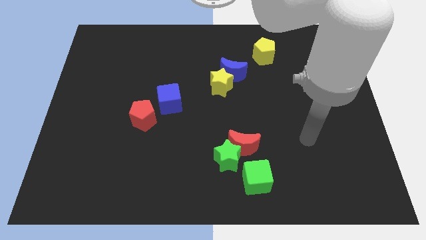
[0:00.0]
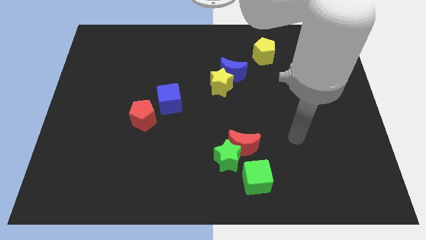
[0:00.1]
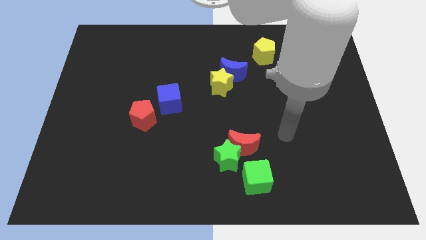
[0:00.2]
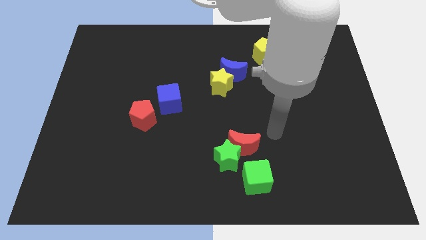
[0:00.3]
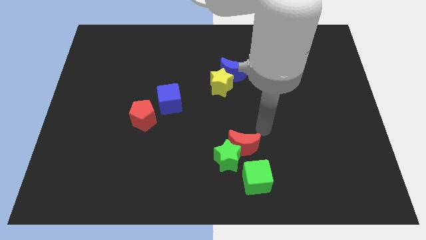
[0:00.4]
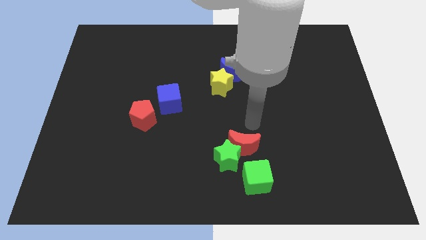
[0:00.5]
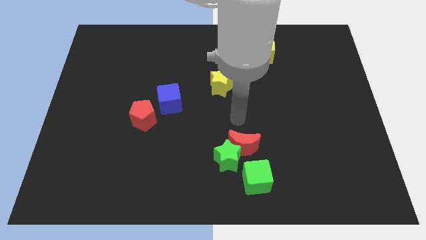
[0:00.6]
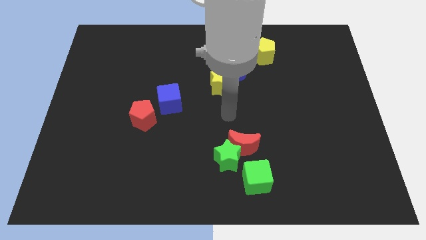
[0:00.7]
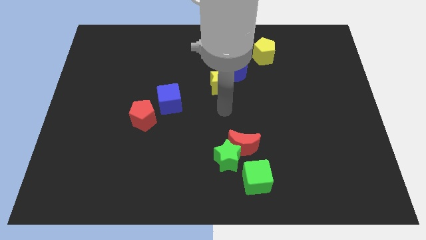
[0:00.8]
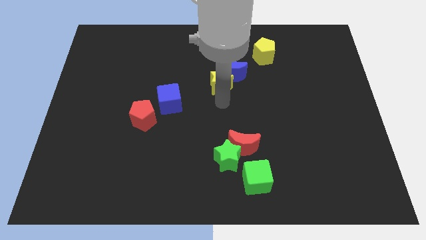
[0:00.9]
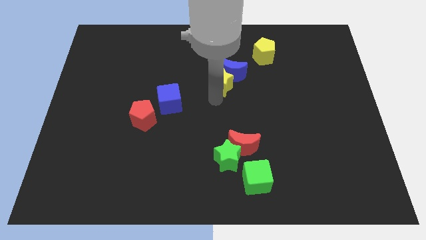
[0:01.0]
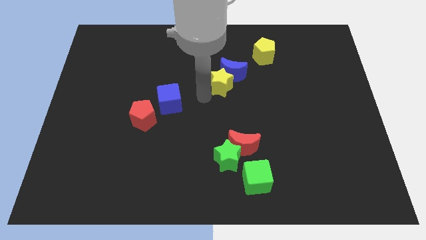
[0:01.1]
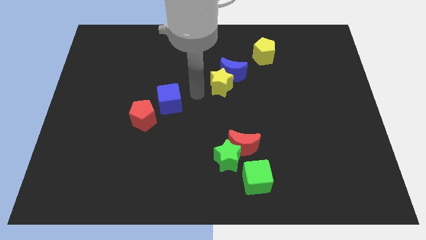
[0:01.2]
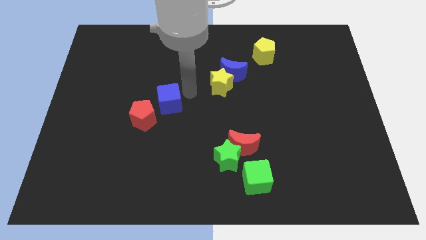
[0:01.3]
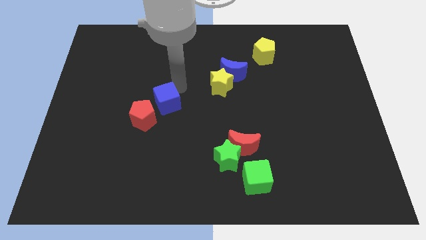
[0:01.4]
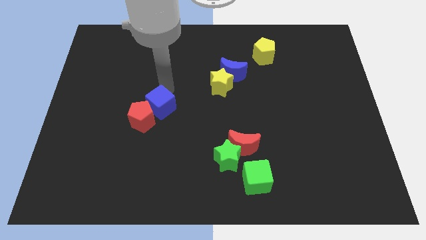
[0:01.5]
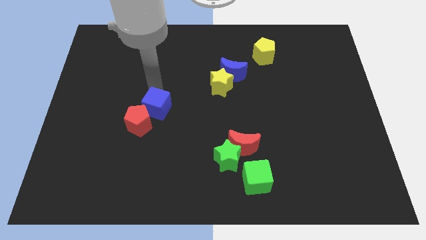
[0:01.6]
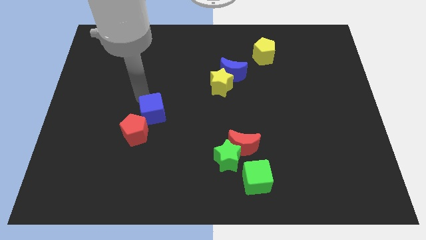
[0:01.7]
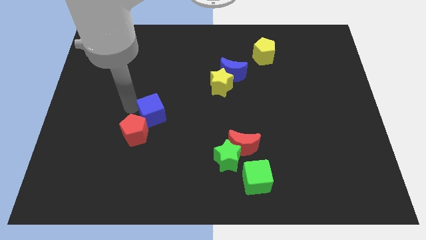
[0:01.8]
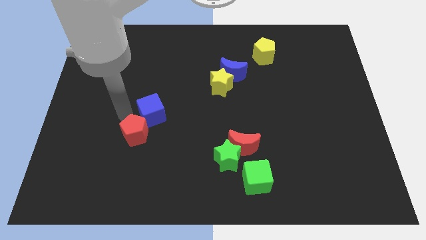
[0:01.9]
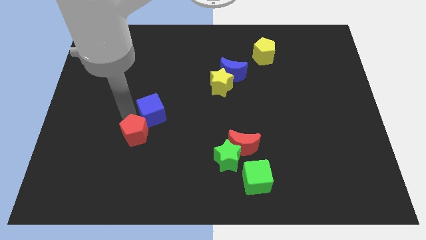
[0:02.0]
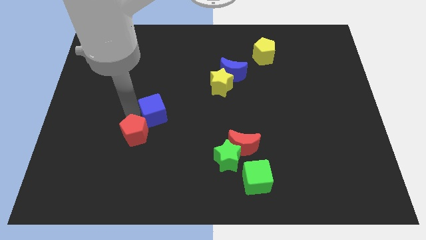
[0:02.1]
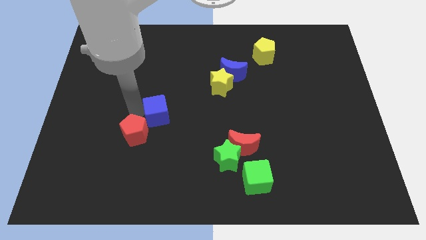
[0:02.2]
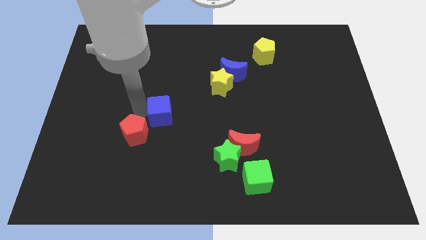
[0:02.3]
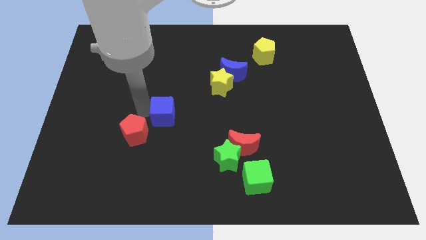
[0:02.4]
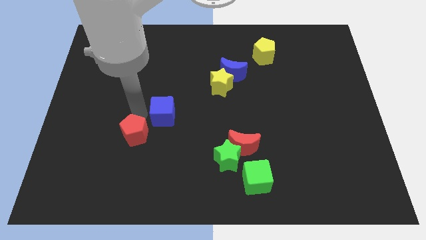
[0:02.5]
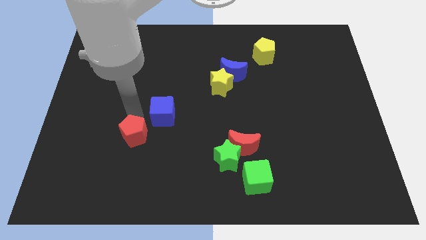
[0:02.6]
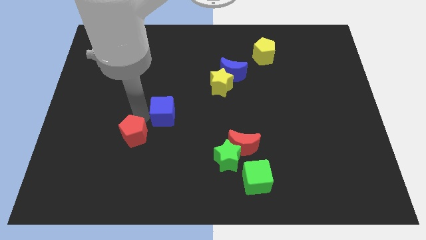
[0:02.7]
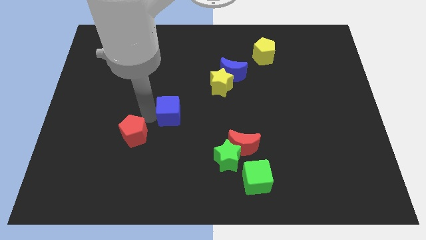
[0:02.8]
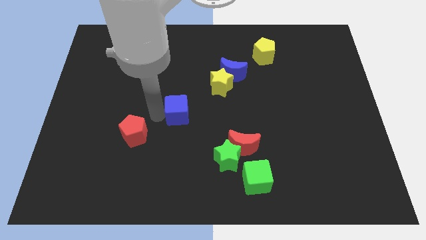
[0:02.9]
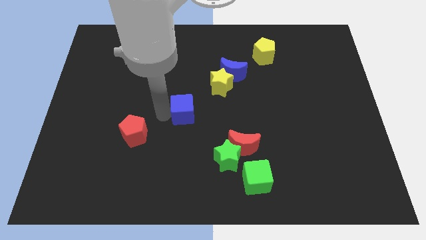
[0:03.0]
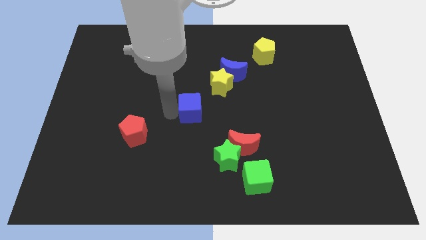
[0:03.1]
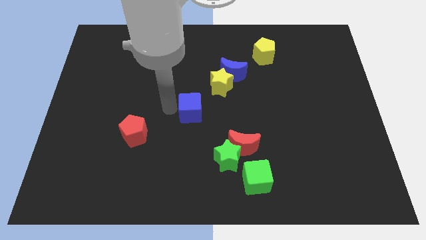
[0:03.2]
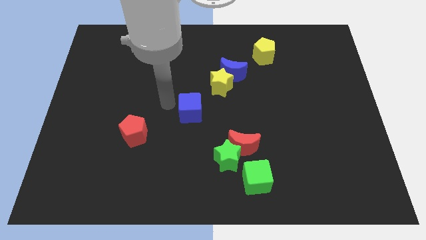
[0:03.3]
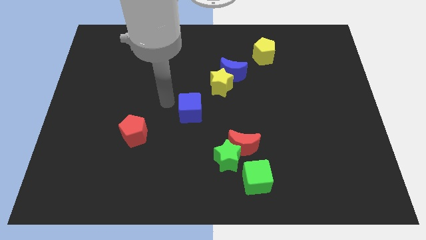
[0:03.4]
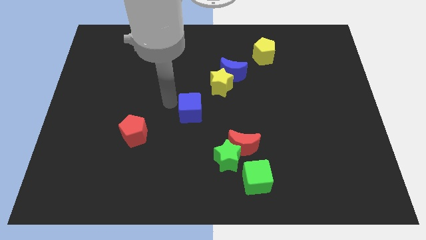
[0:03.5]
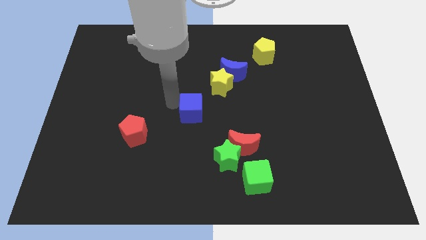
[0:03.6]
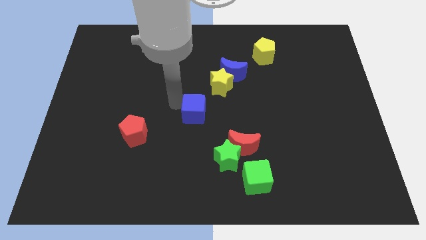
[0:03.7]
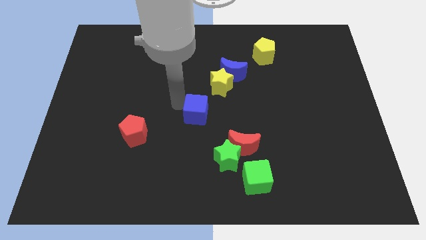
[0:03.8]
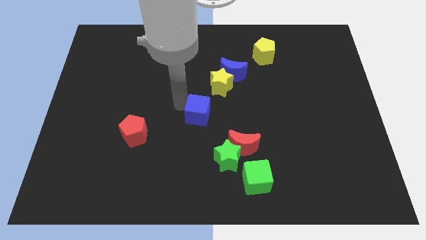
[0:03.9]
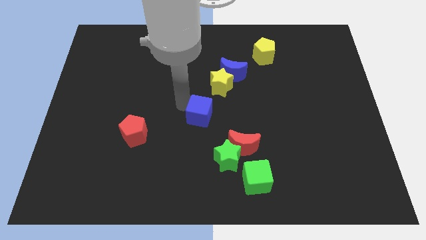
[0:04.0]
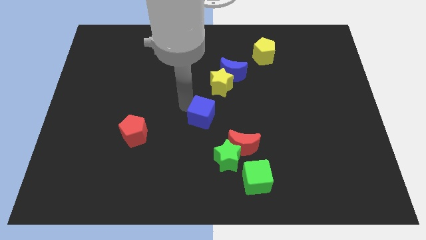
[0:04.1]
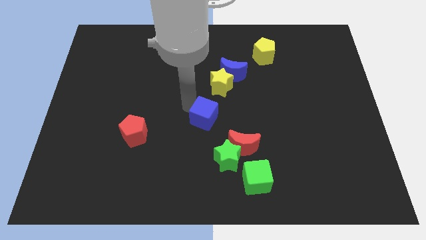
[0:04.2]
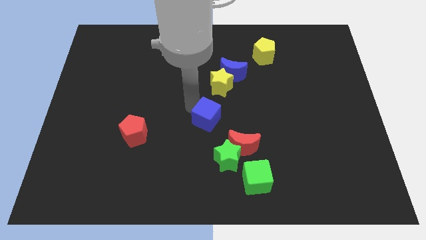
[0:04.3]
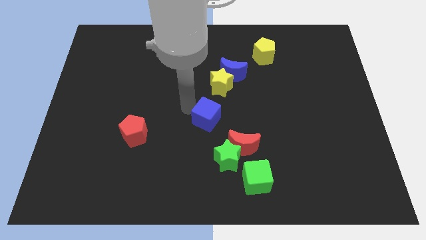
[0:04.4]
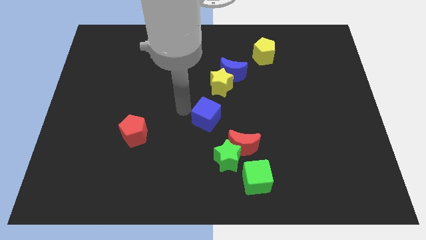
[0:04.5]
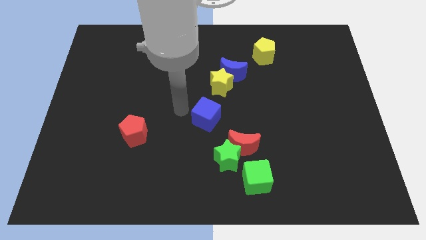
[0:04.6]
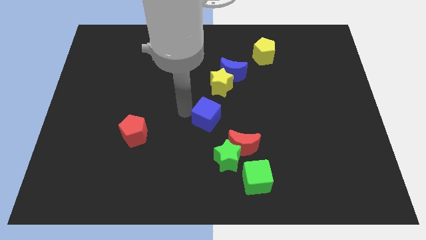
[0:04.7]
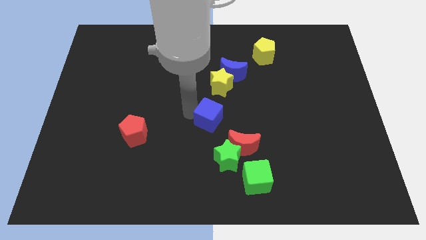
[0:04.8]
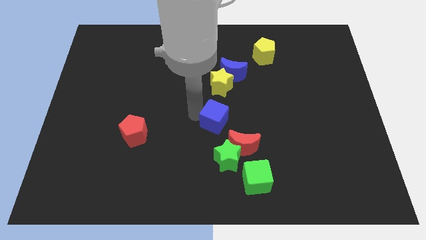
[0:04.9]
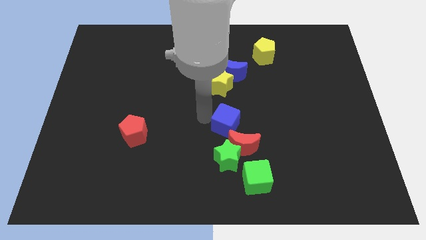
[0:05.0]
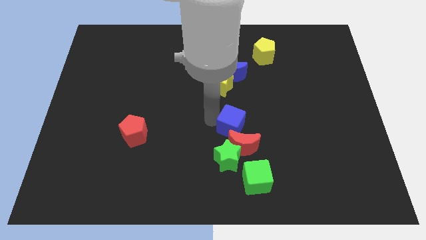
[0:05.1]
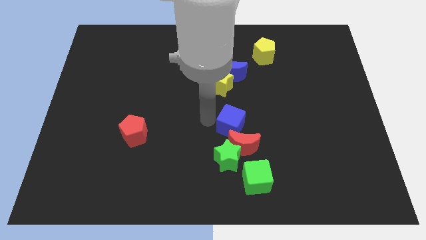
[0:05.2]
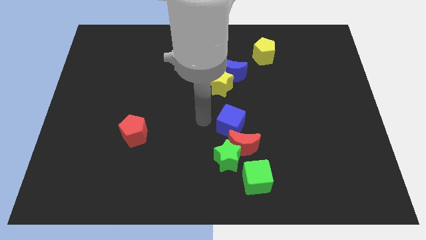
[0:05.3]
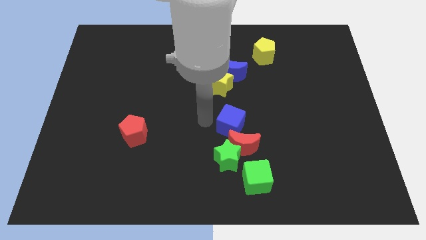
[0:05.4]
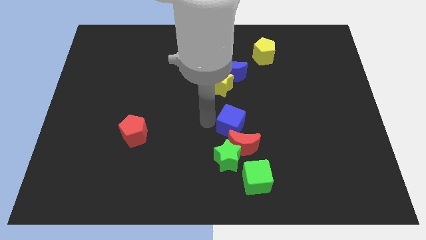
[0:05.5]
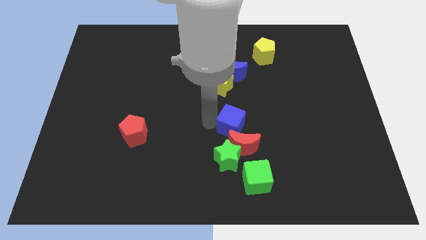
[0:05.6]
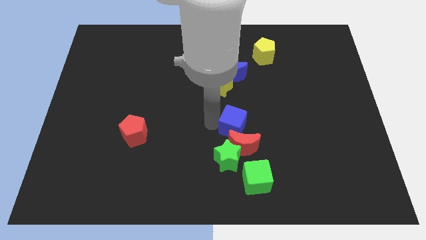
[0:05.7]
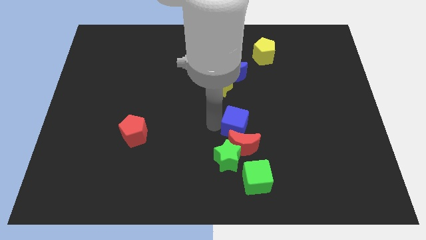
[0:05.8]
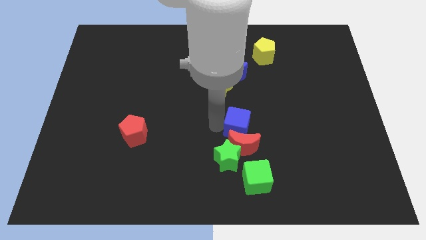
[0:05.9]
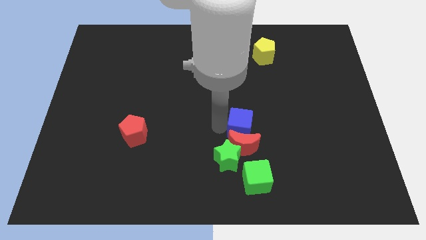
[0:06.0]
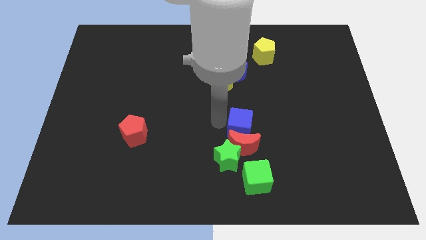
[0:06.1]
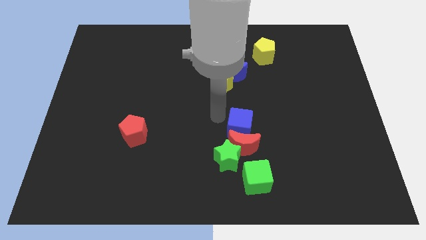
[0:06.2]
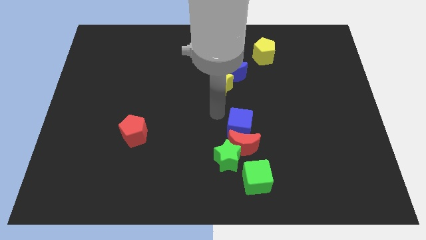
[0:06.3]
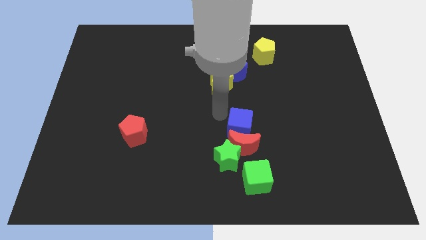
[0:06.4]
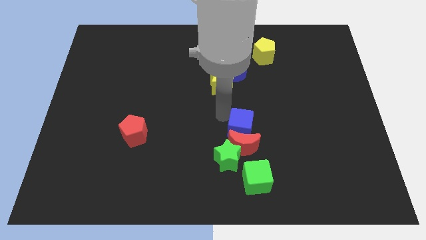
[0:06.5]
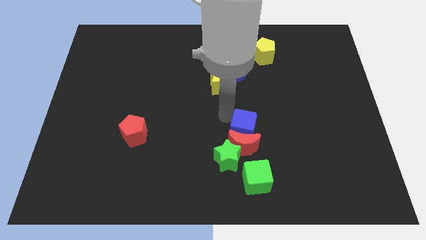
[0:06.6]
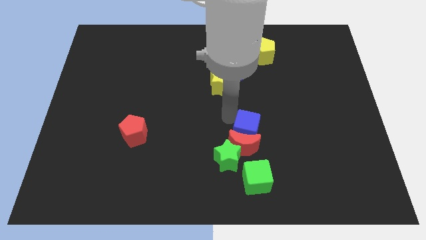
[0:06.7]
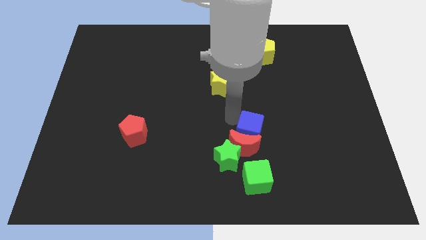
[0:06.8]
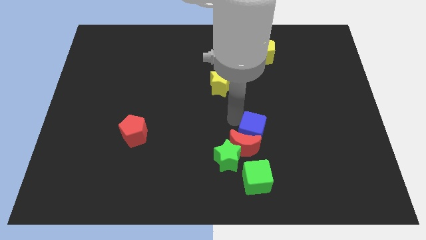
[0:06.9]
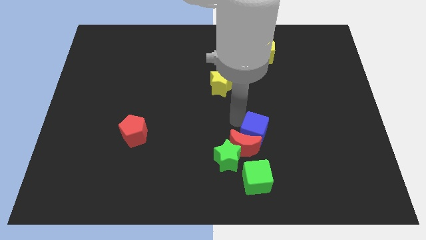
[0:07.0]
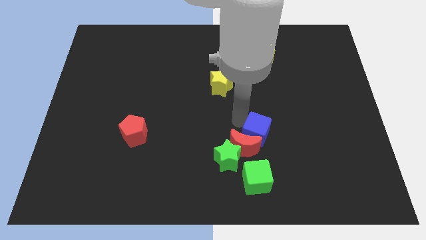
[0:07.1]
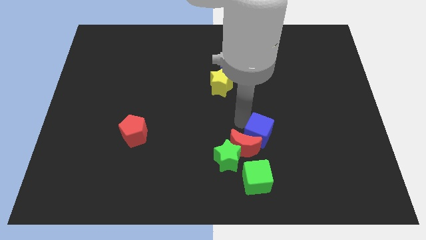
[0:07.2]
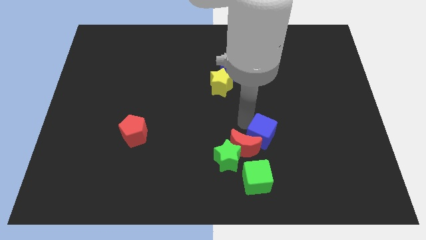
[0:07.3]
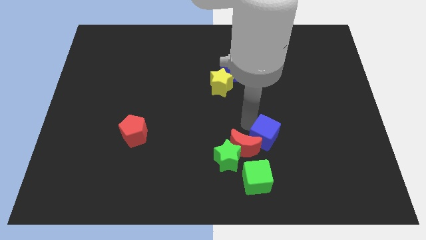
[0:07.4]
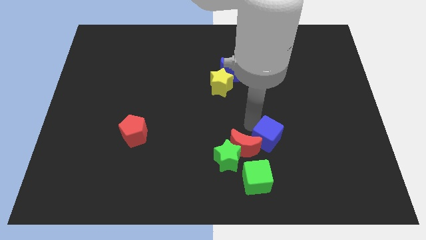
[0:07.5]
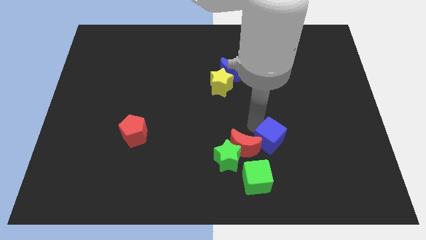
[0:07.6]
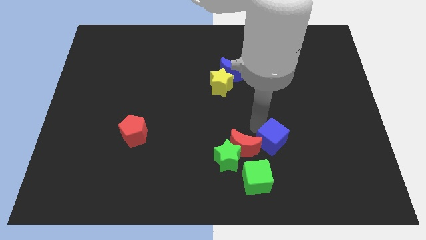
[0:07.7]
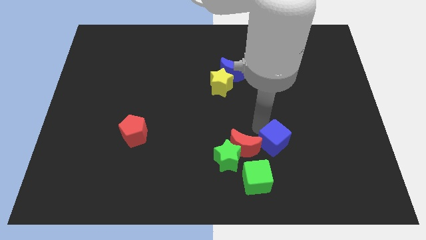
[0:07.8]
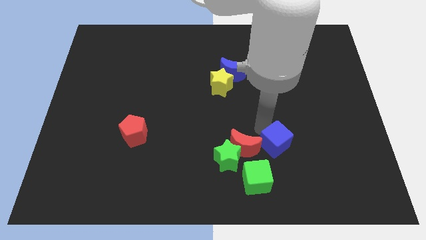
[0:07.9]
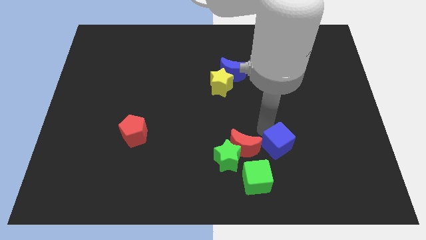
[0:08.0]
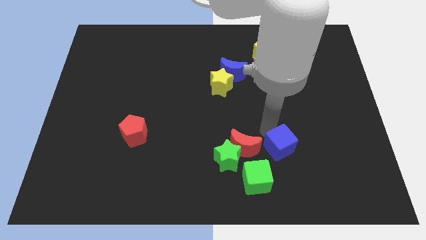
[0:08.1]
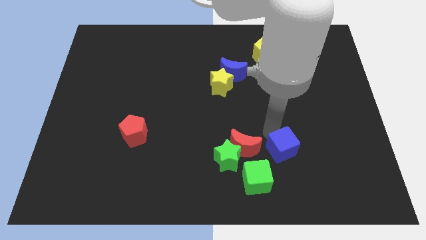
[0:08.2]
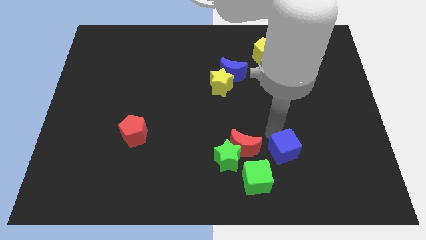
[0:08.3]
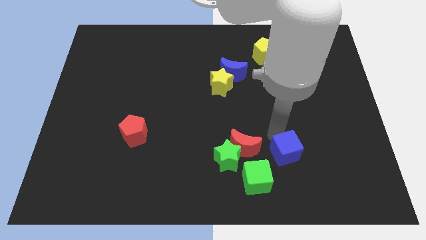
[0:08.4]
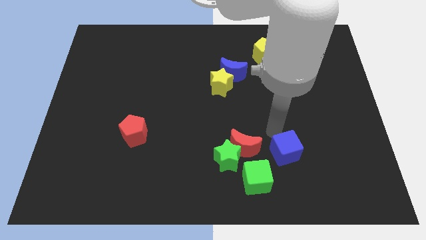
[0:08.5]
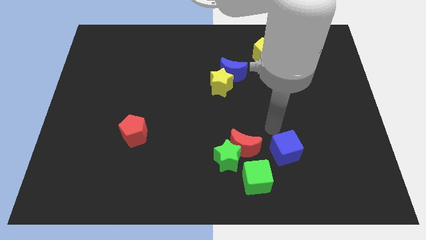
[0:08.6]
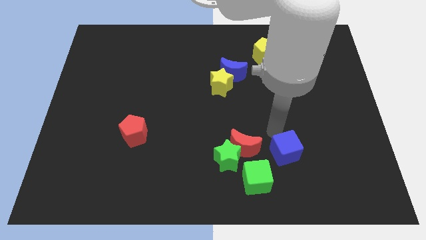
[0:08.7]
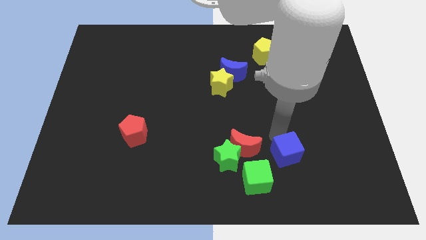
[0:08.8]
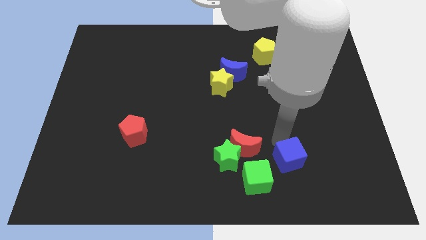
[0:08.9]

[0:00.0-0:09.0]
put the blue cube right of the green cube
